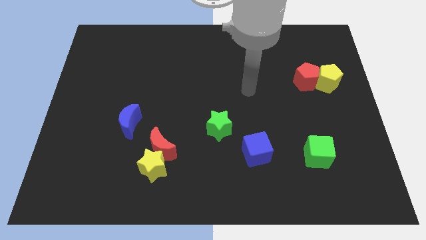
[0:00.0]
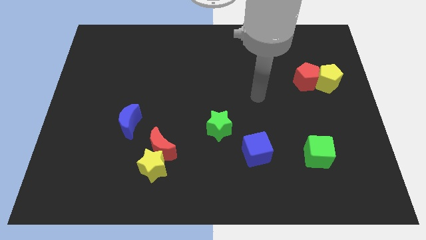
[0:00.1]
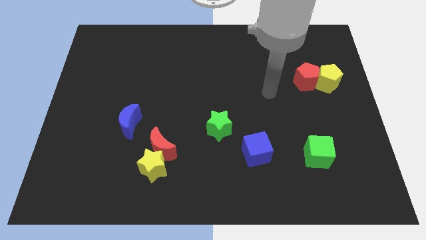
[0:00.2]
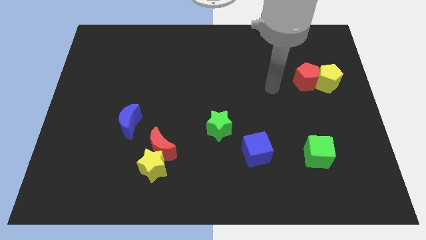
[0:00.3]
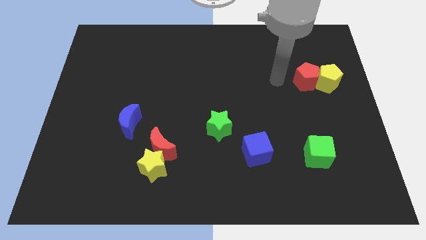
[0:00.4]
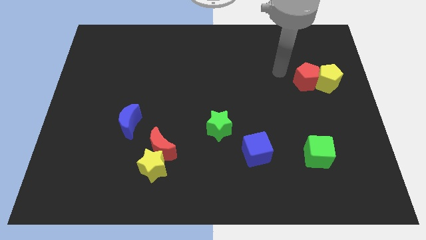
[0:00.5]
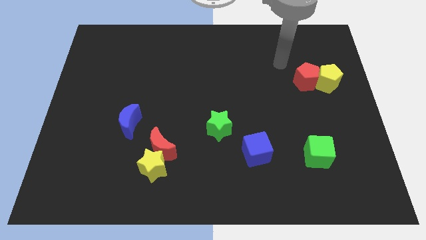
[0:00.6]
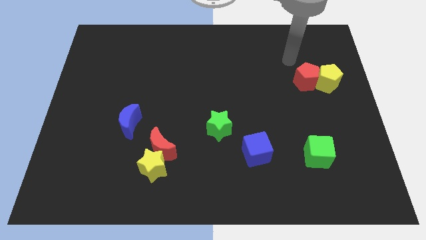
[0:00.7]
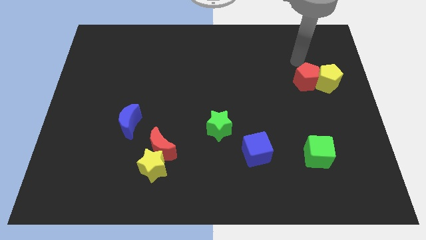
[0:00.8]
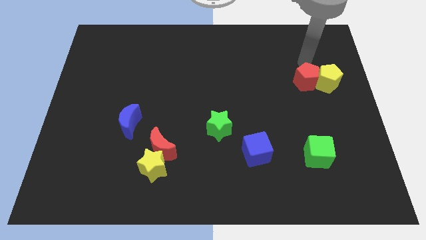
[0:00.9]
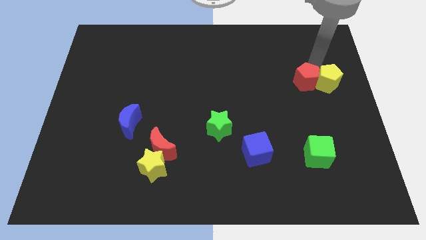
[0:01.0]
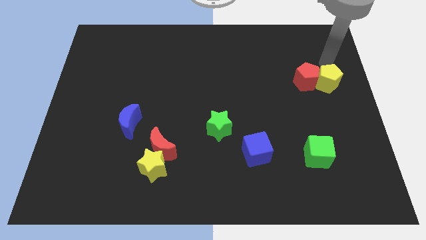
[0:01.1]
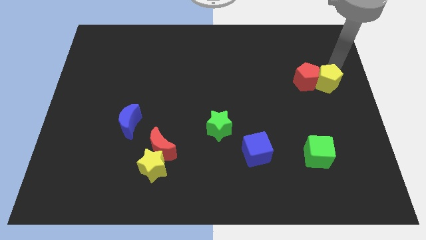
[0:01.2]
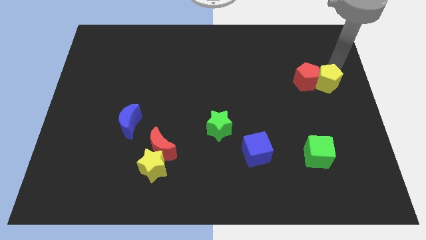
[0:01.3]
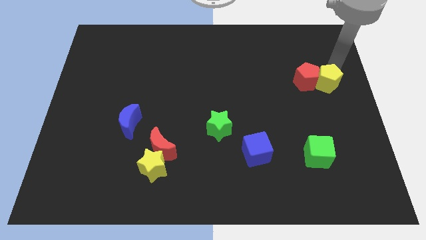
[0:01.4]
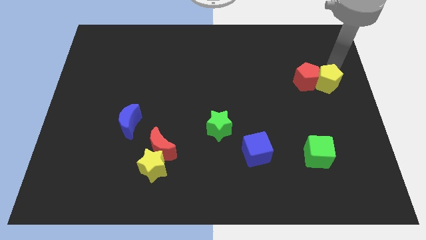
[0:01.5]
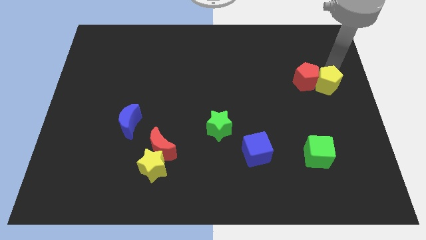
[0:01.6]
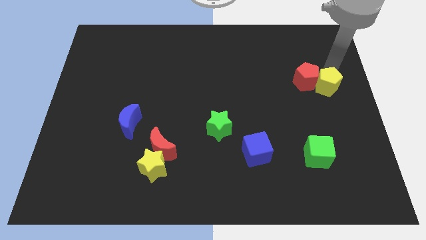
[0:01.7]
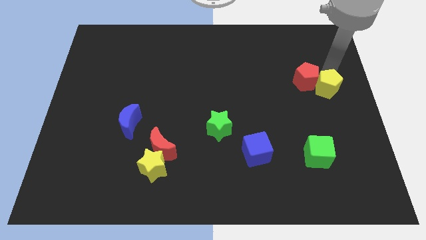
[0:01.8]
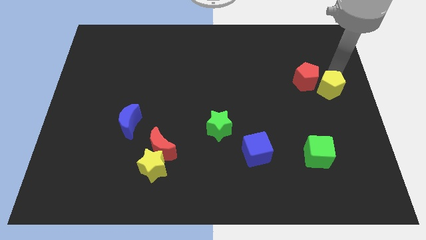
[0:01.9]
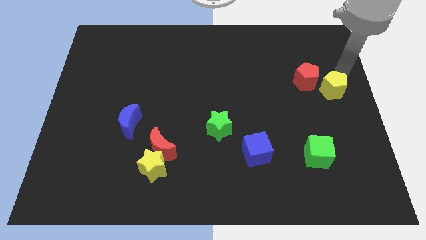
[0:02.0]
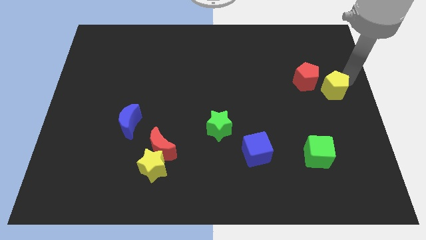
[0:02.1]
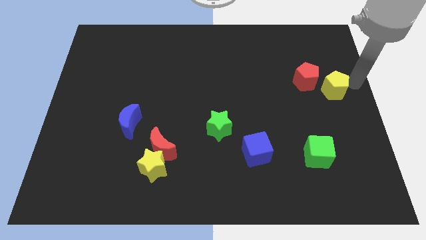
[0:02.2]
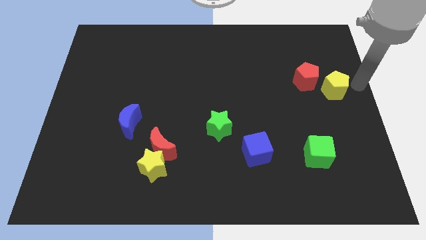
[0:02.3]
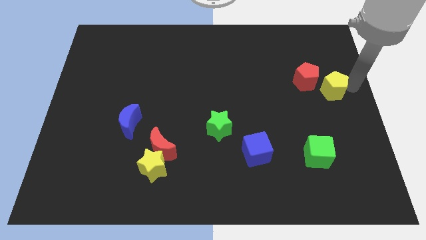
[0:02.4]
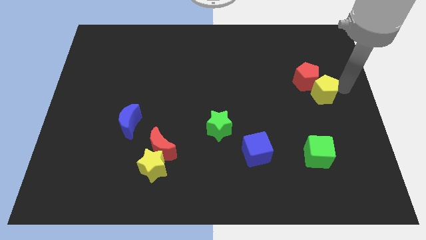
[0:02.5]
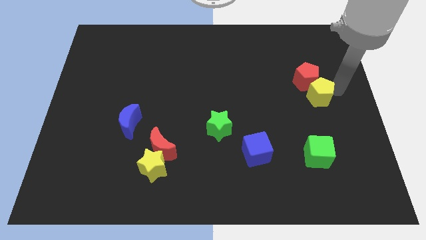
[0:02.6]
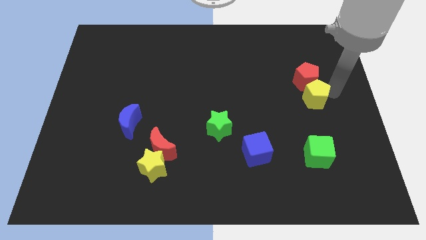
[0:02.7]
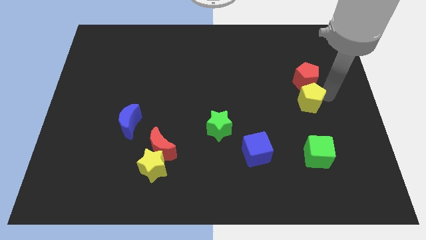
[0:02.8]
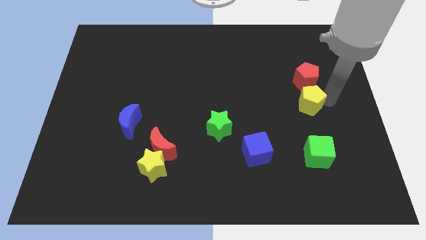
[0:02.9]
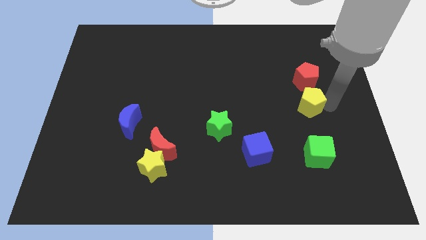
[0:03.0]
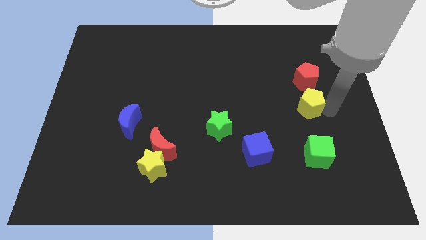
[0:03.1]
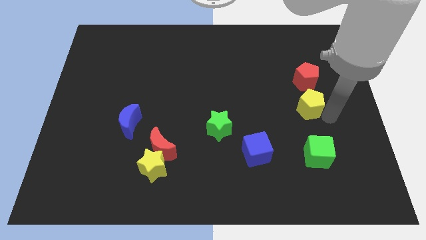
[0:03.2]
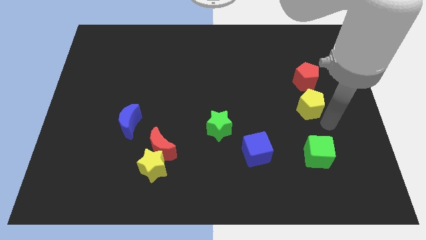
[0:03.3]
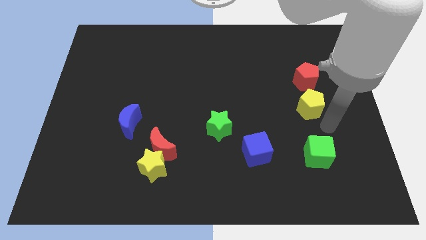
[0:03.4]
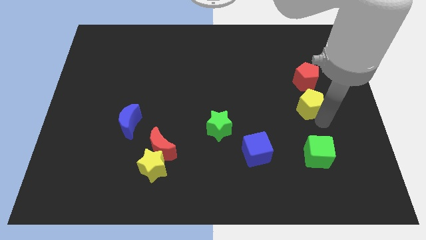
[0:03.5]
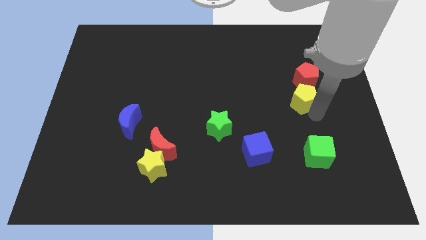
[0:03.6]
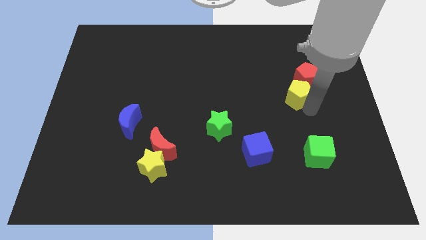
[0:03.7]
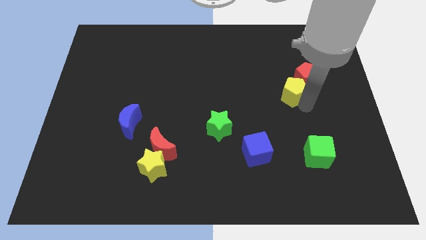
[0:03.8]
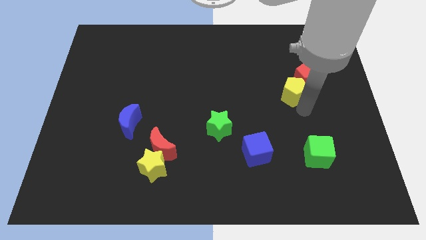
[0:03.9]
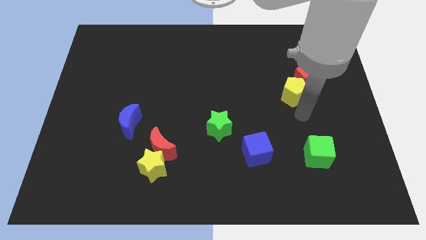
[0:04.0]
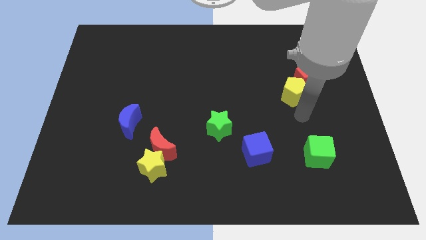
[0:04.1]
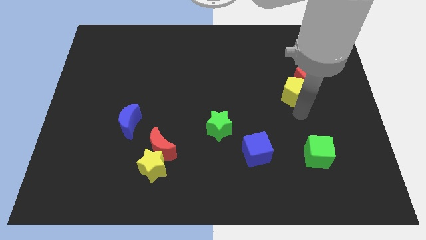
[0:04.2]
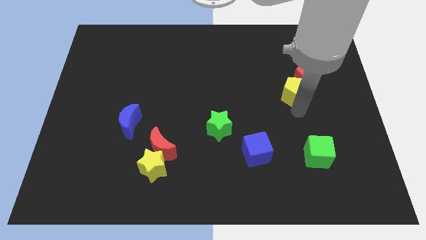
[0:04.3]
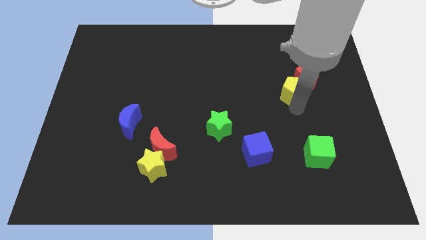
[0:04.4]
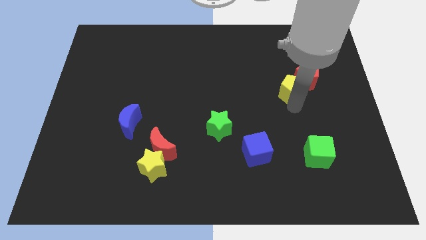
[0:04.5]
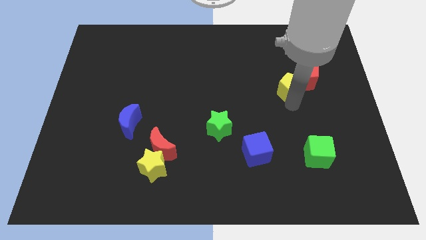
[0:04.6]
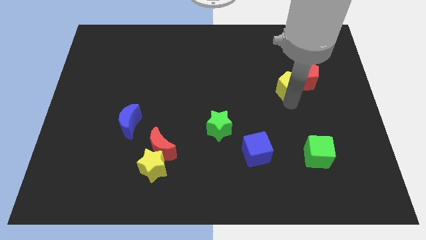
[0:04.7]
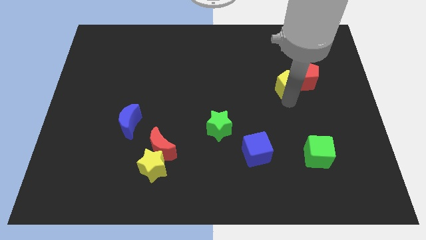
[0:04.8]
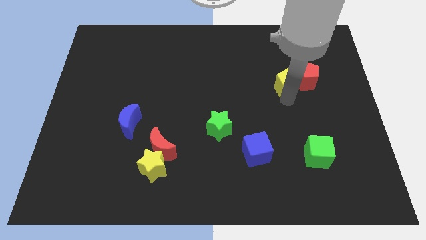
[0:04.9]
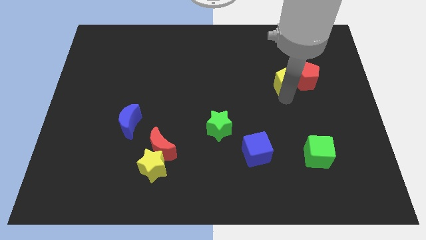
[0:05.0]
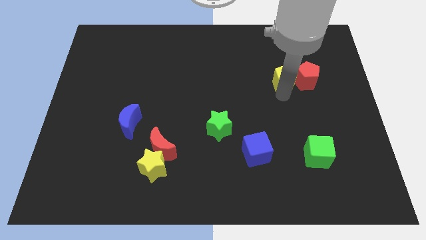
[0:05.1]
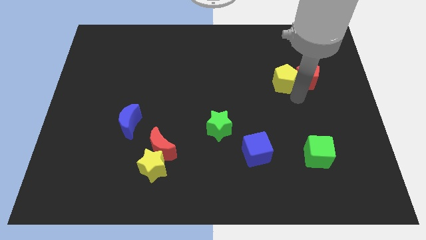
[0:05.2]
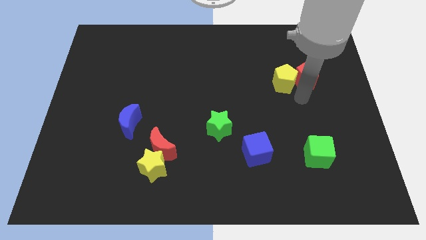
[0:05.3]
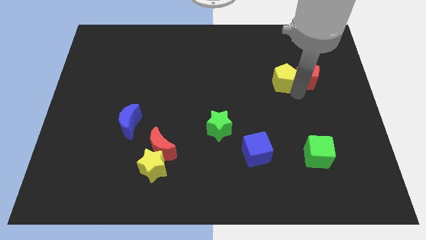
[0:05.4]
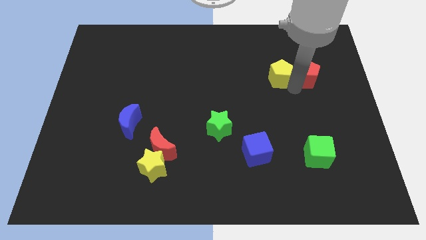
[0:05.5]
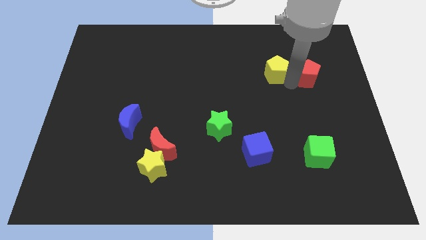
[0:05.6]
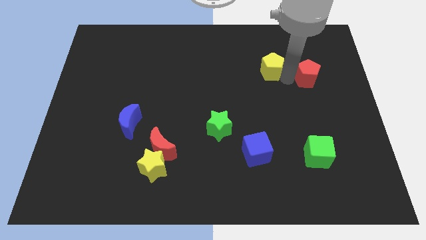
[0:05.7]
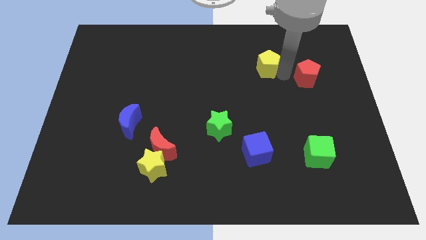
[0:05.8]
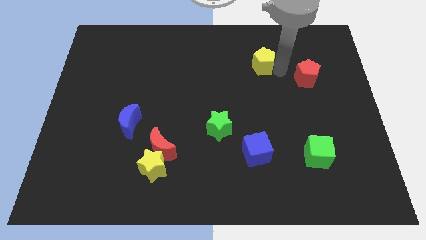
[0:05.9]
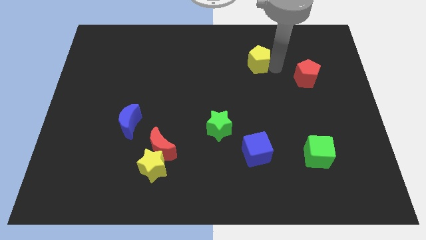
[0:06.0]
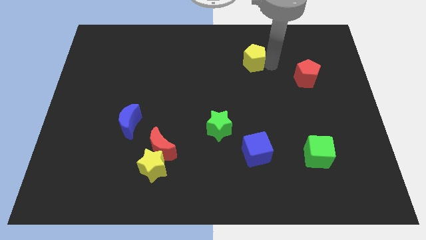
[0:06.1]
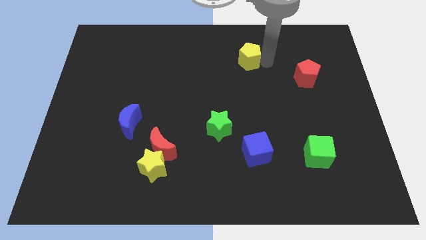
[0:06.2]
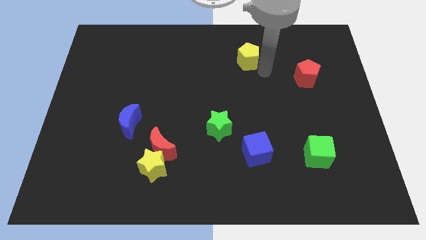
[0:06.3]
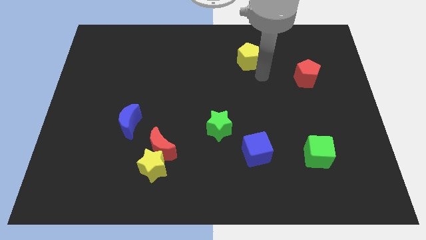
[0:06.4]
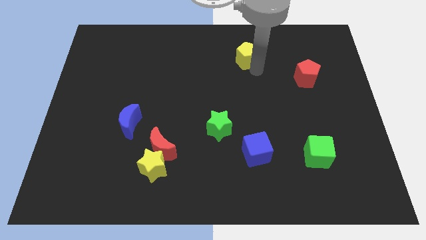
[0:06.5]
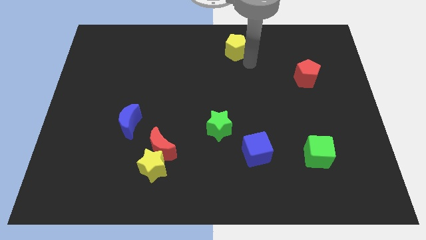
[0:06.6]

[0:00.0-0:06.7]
put the yellow pentagon to the top
